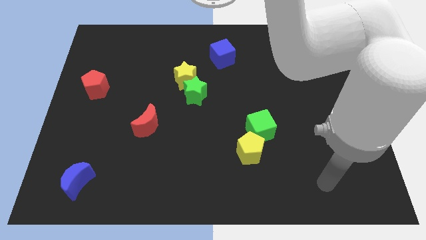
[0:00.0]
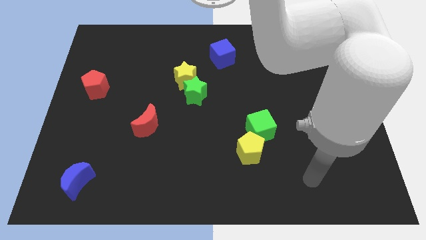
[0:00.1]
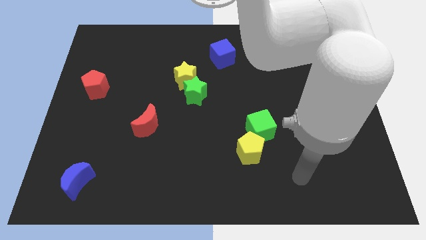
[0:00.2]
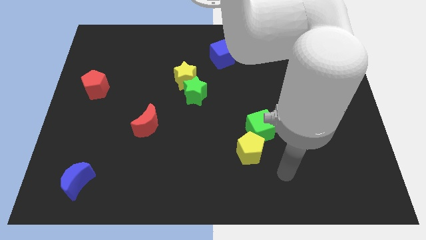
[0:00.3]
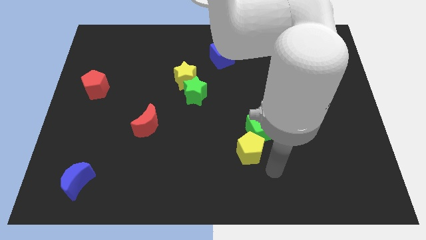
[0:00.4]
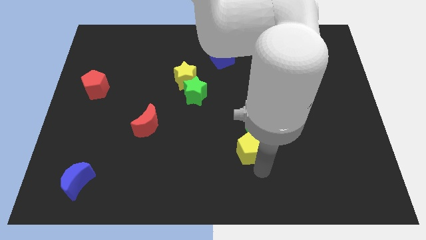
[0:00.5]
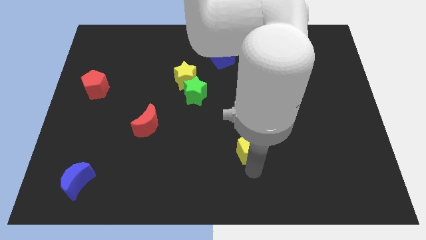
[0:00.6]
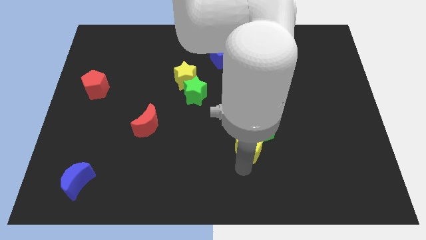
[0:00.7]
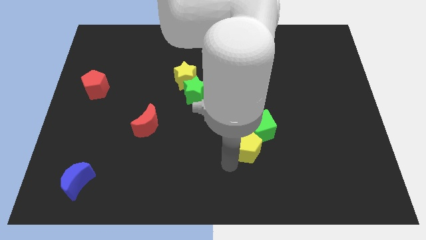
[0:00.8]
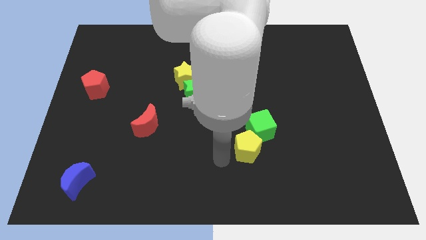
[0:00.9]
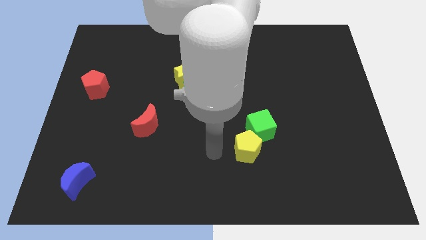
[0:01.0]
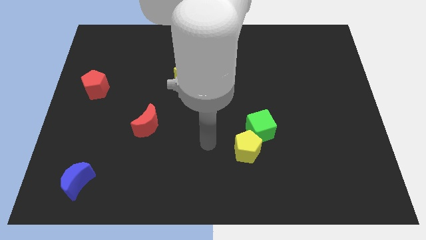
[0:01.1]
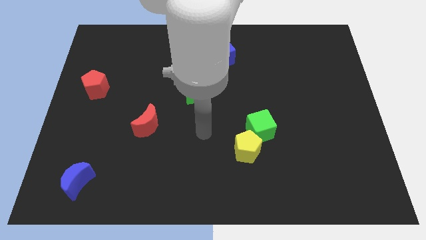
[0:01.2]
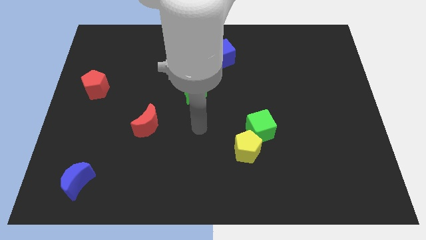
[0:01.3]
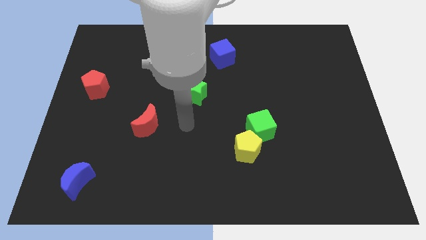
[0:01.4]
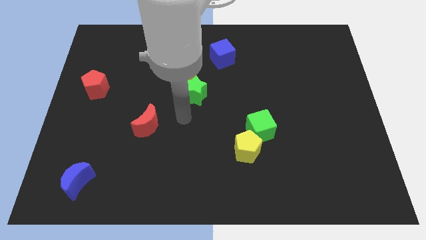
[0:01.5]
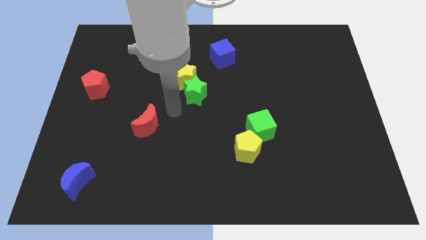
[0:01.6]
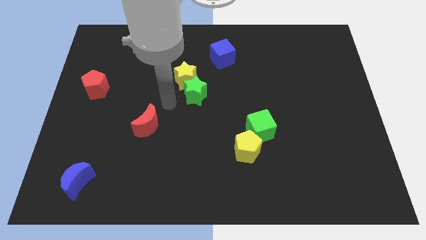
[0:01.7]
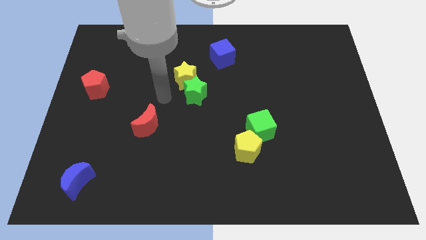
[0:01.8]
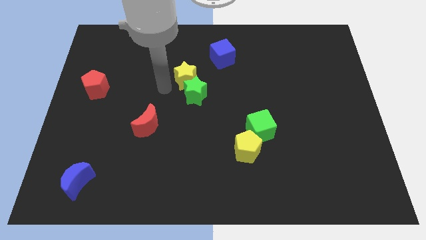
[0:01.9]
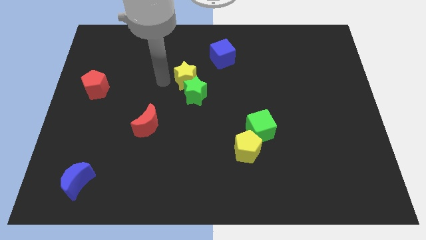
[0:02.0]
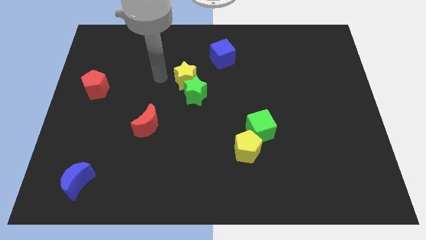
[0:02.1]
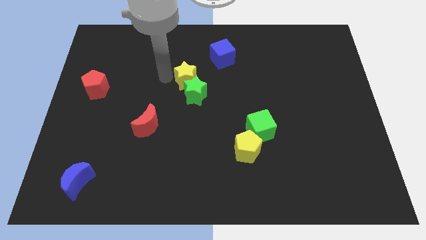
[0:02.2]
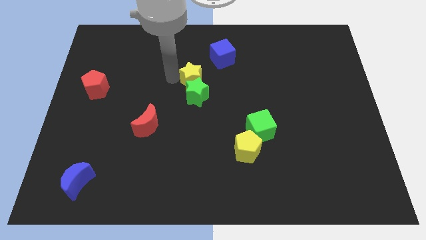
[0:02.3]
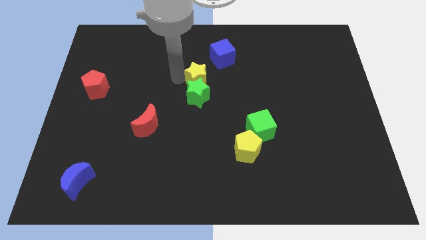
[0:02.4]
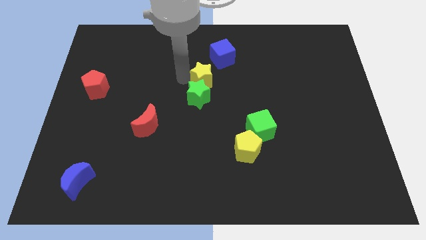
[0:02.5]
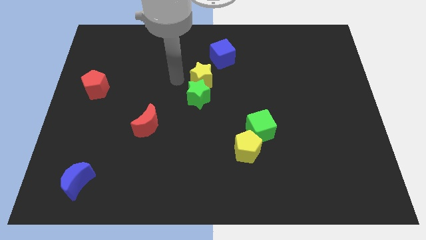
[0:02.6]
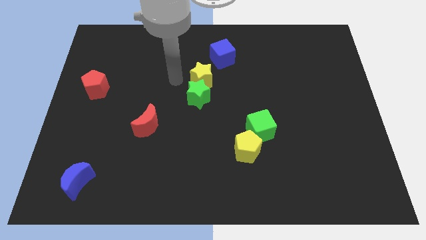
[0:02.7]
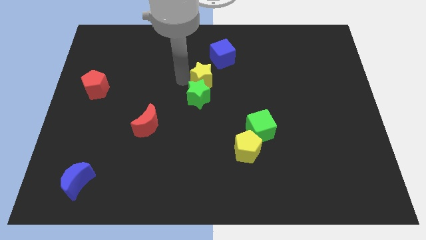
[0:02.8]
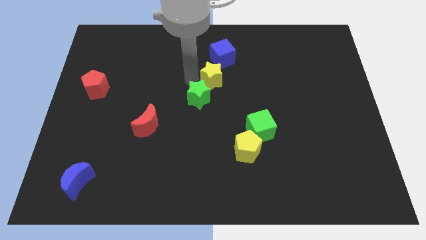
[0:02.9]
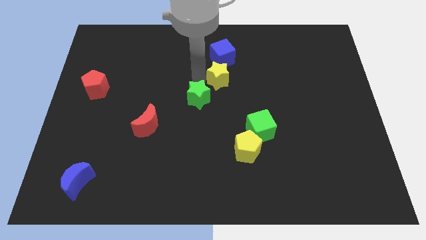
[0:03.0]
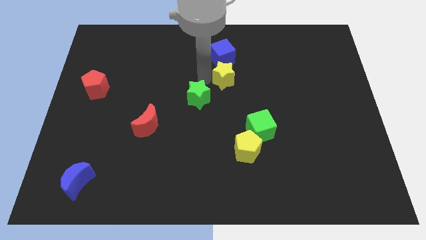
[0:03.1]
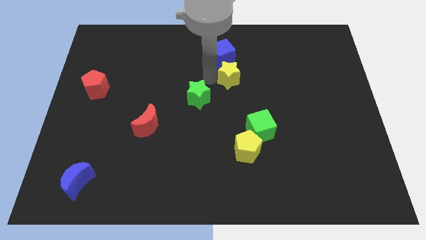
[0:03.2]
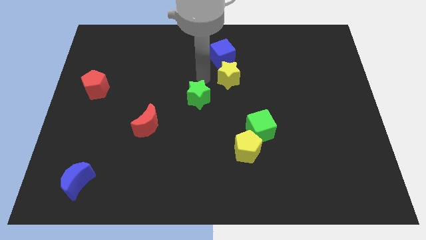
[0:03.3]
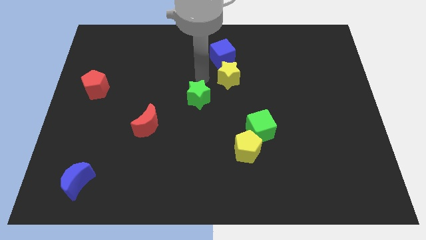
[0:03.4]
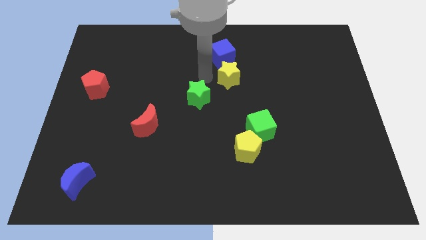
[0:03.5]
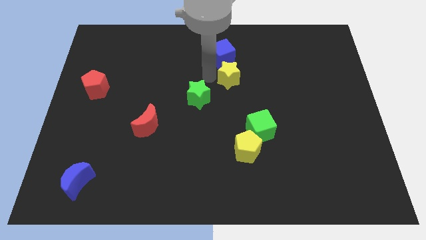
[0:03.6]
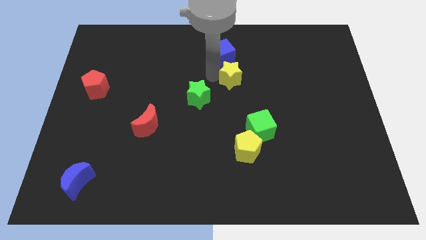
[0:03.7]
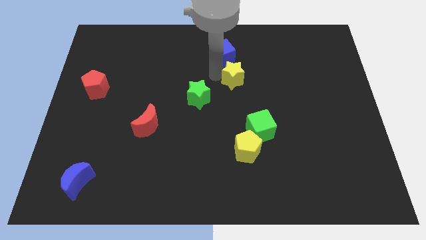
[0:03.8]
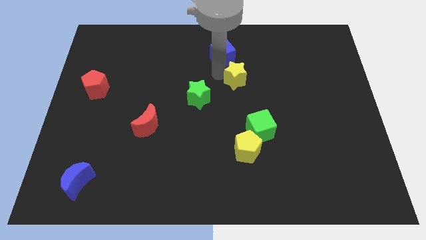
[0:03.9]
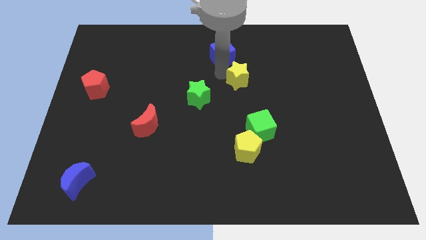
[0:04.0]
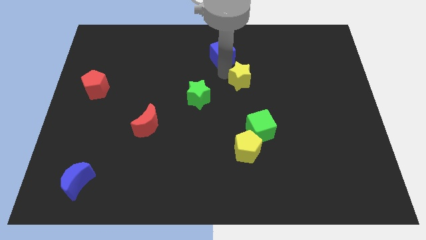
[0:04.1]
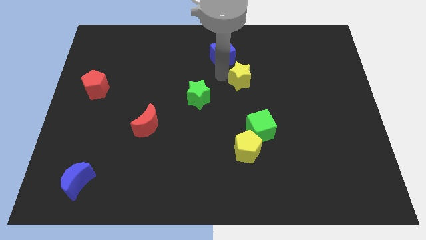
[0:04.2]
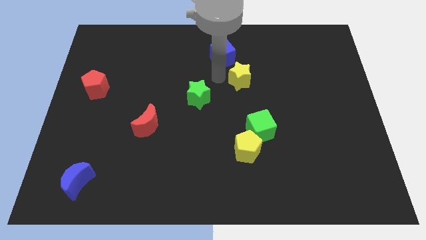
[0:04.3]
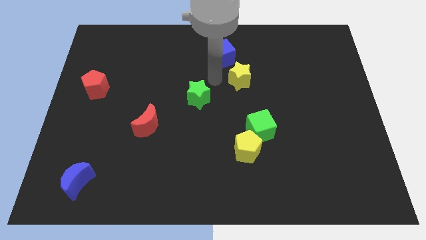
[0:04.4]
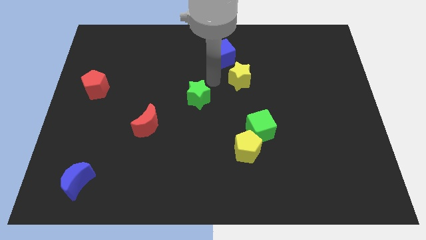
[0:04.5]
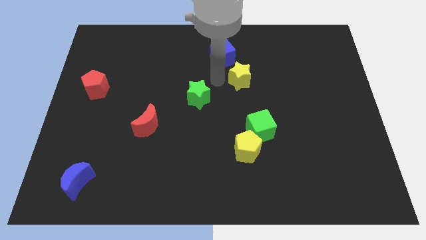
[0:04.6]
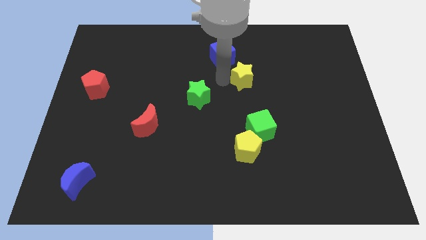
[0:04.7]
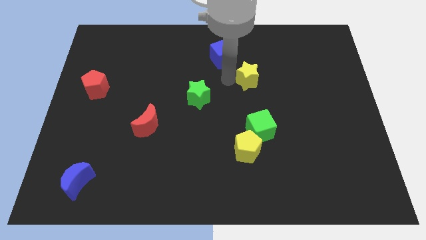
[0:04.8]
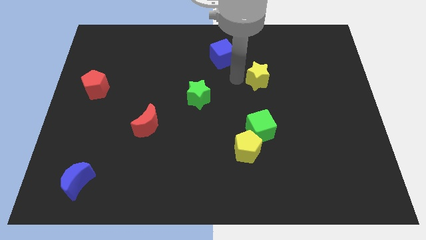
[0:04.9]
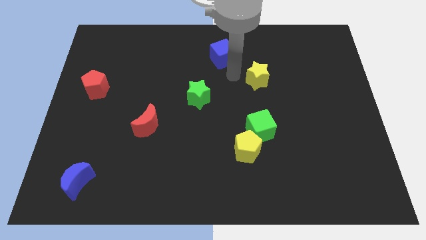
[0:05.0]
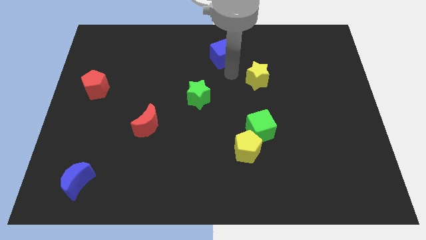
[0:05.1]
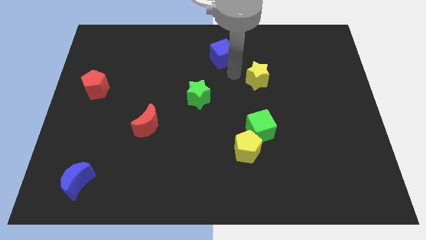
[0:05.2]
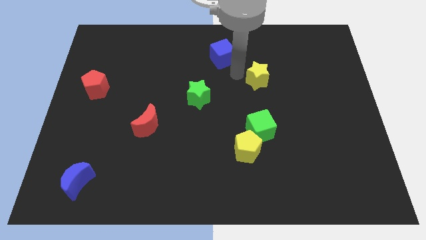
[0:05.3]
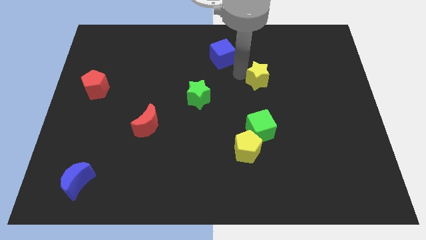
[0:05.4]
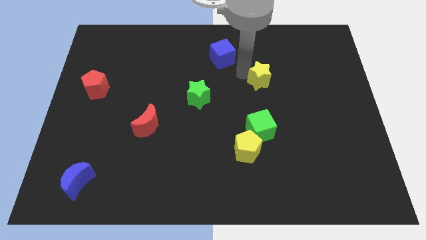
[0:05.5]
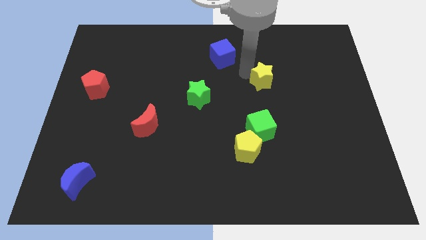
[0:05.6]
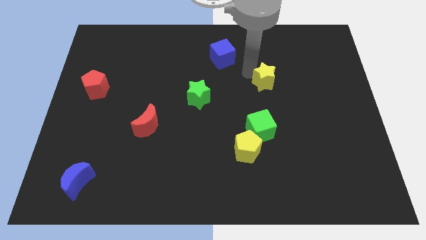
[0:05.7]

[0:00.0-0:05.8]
slide the yellow star right

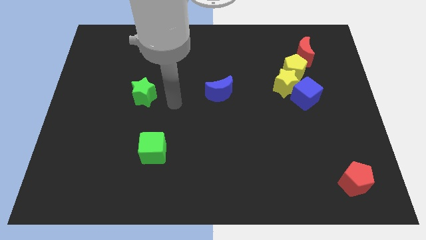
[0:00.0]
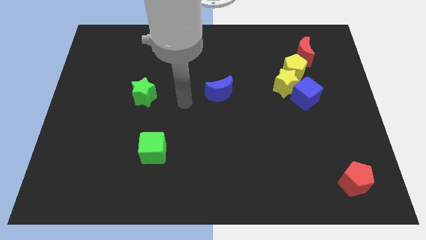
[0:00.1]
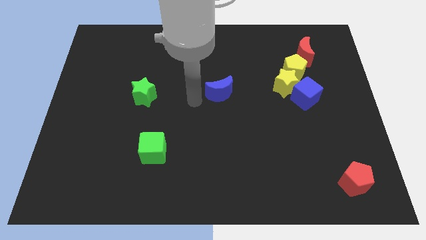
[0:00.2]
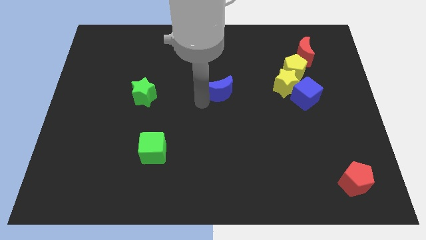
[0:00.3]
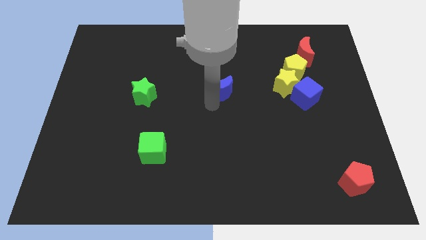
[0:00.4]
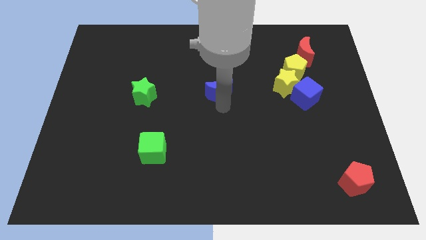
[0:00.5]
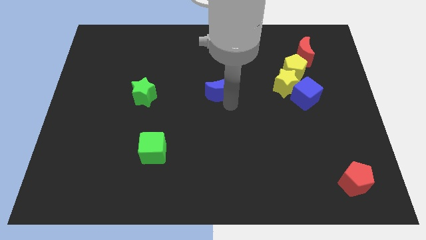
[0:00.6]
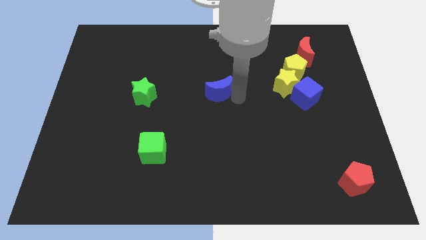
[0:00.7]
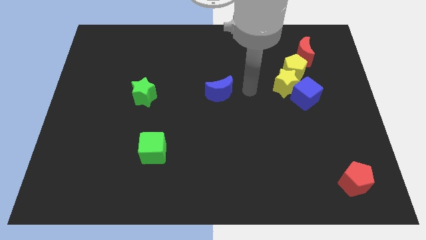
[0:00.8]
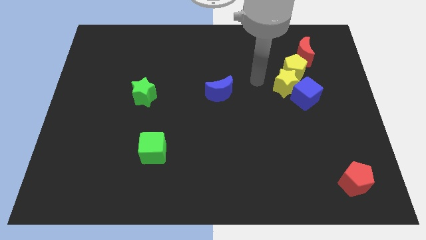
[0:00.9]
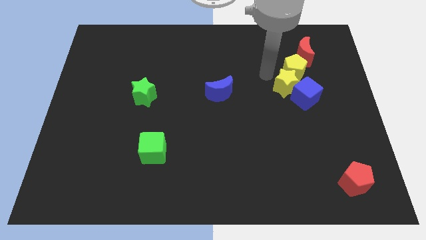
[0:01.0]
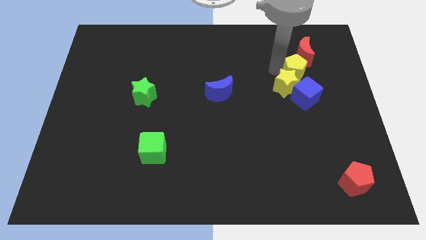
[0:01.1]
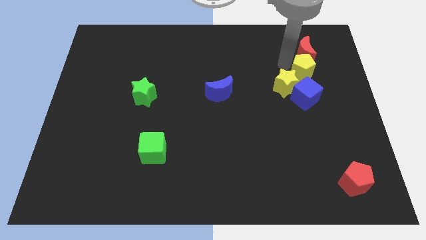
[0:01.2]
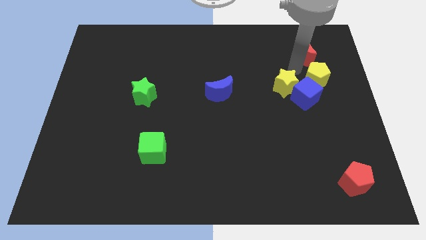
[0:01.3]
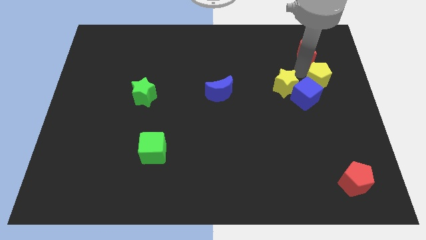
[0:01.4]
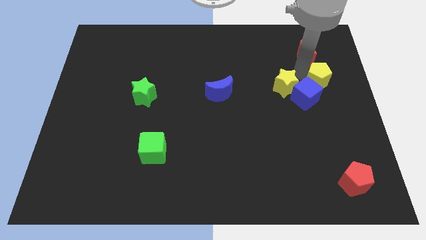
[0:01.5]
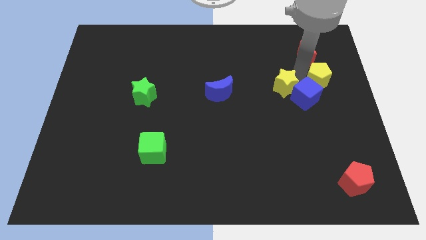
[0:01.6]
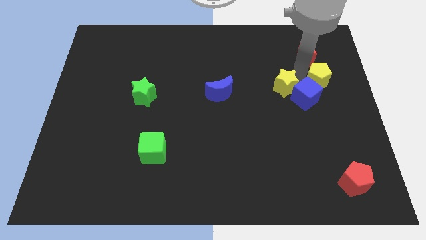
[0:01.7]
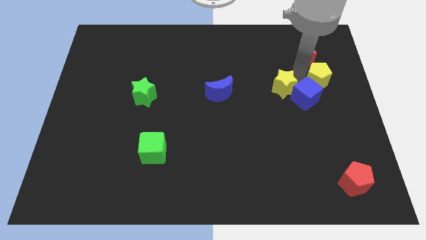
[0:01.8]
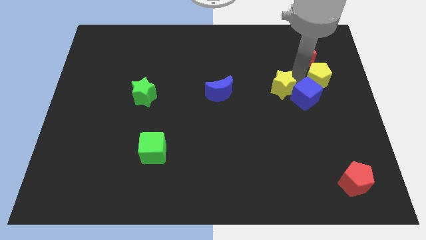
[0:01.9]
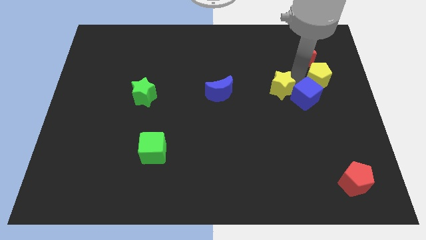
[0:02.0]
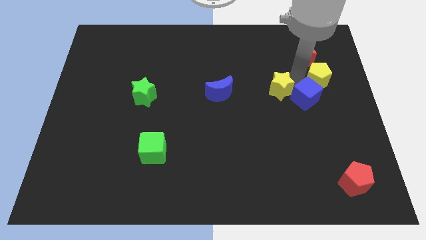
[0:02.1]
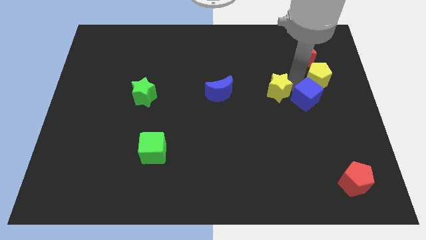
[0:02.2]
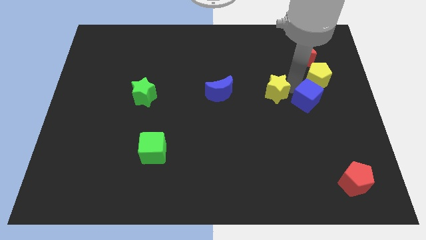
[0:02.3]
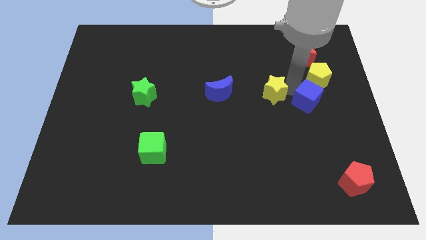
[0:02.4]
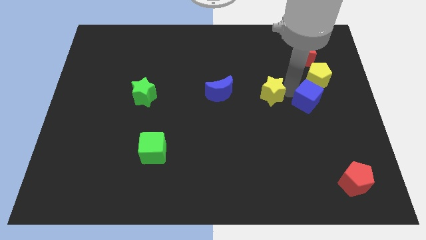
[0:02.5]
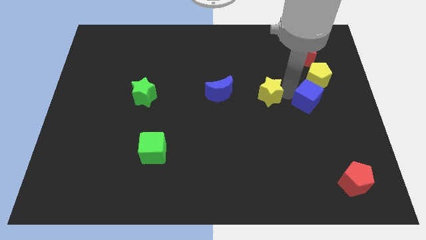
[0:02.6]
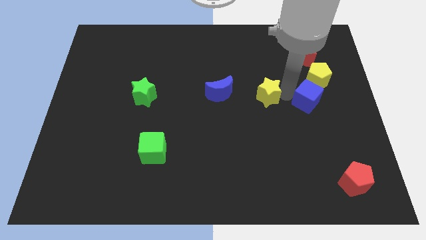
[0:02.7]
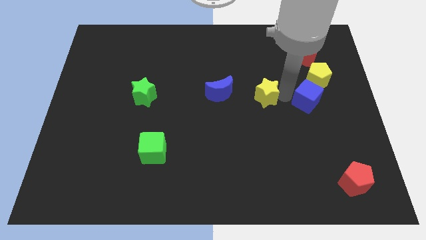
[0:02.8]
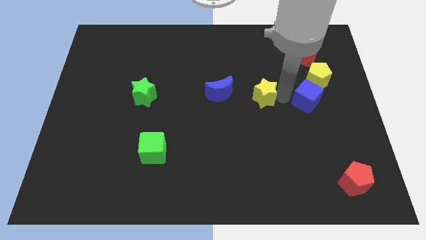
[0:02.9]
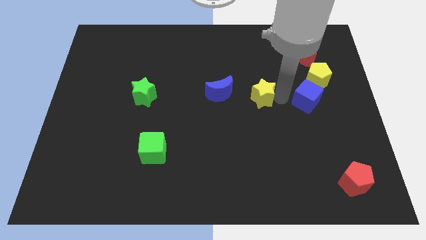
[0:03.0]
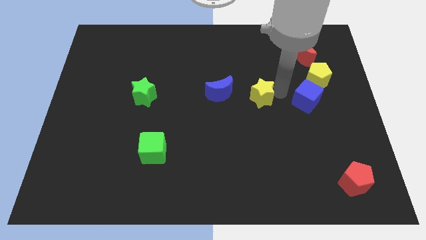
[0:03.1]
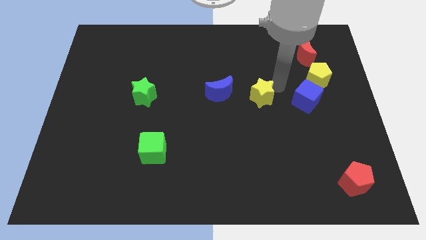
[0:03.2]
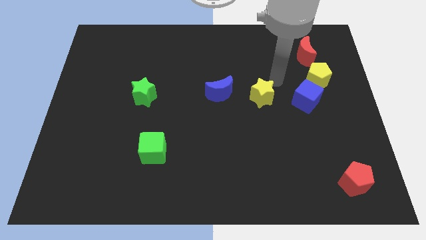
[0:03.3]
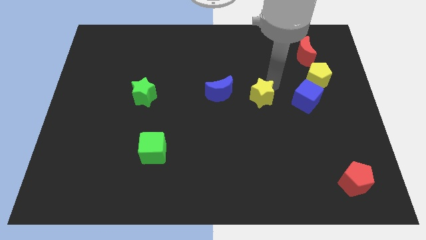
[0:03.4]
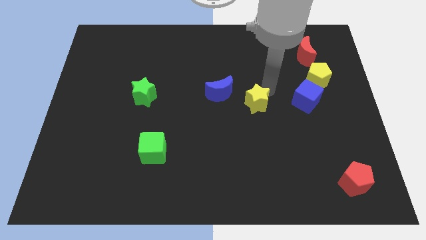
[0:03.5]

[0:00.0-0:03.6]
slide the yellow star a little diagonally down and to the left
